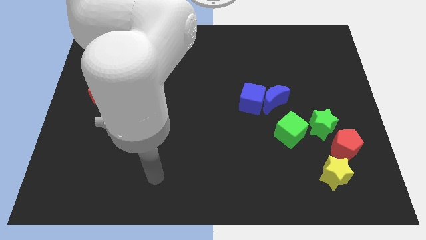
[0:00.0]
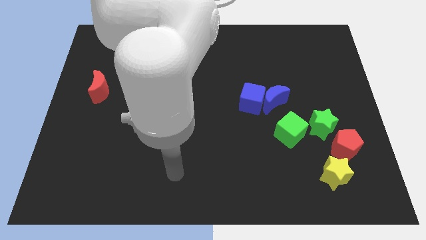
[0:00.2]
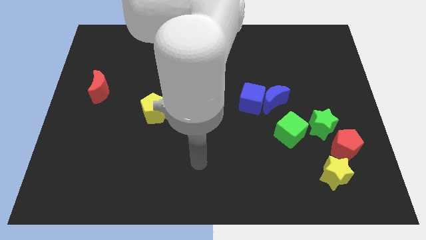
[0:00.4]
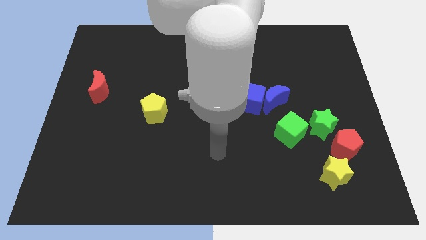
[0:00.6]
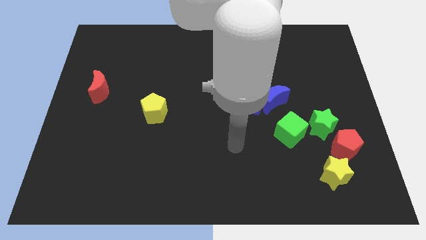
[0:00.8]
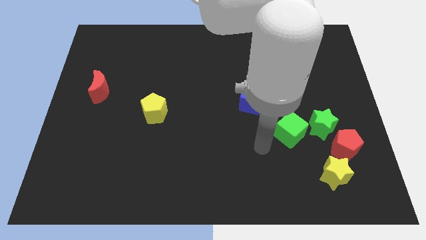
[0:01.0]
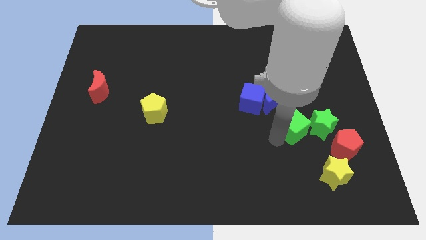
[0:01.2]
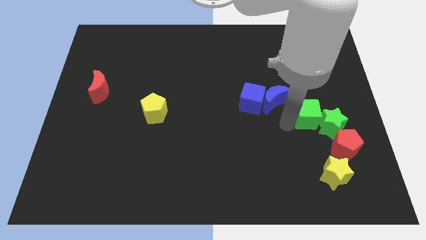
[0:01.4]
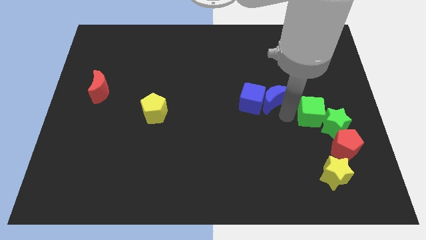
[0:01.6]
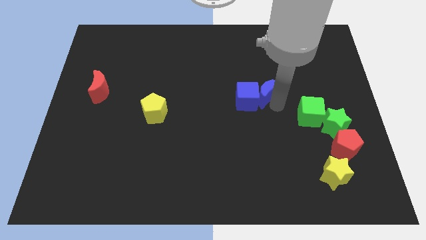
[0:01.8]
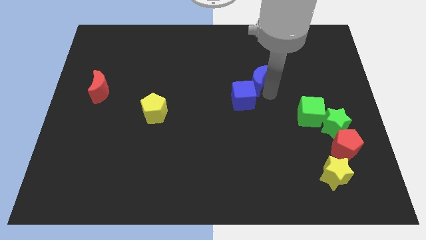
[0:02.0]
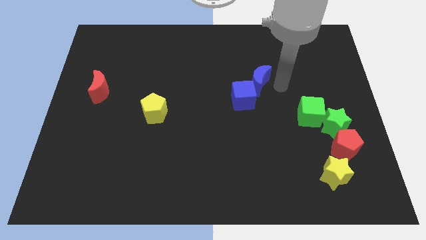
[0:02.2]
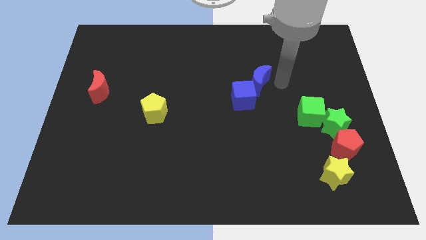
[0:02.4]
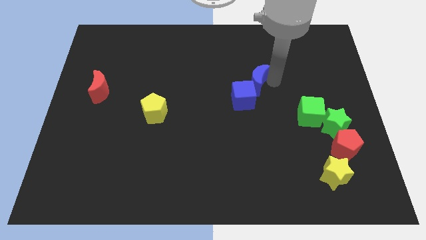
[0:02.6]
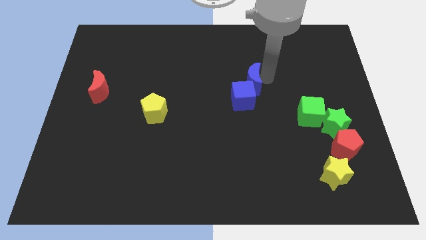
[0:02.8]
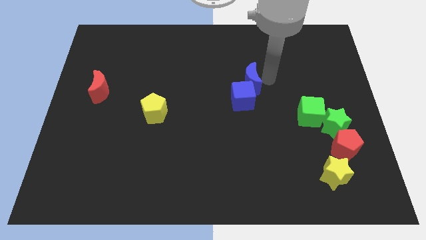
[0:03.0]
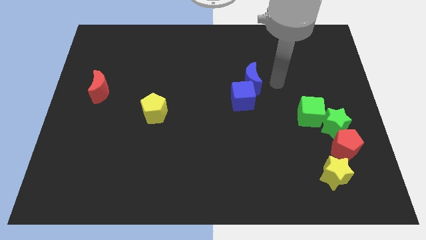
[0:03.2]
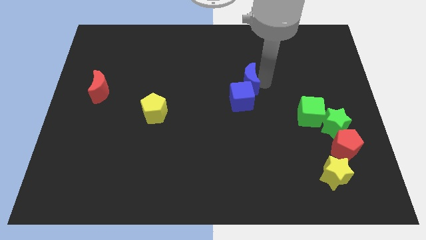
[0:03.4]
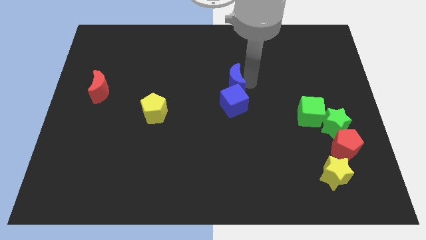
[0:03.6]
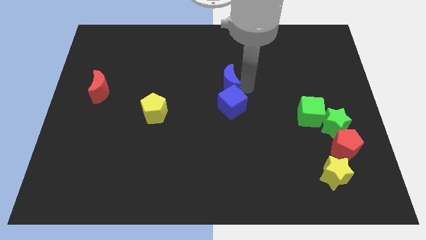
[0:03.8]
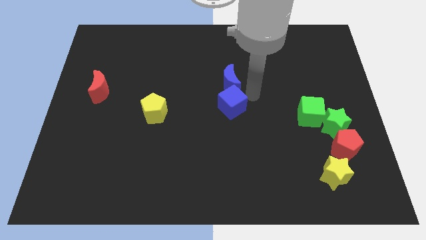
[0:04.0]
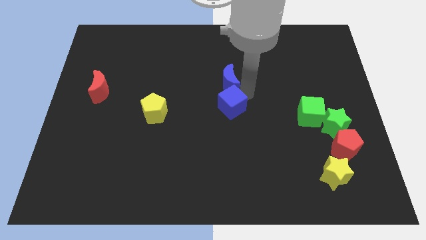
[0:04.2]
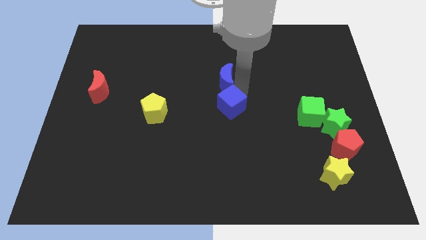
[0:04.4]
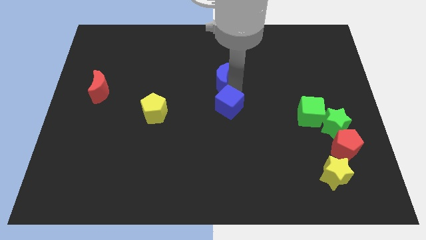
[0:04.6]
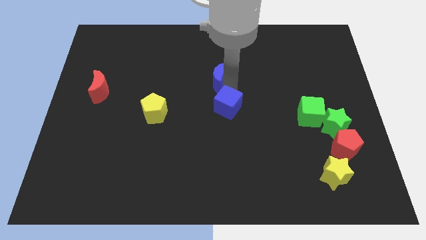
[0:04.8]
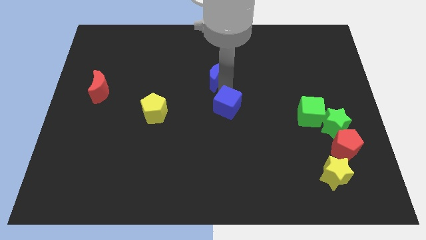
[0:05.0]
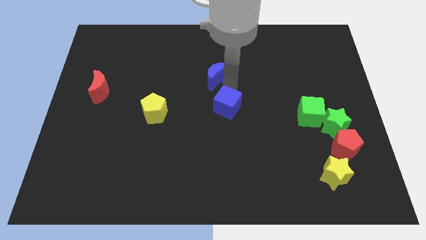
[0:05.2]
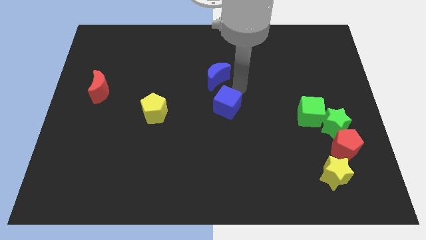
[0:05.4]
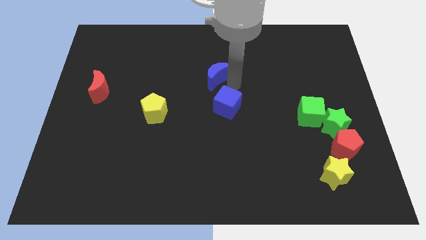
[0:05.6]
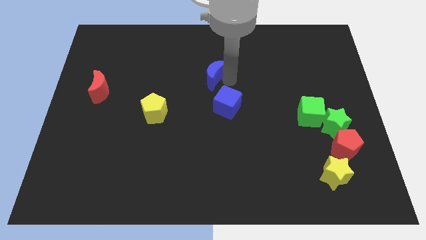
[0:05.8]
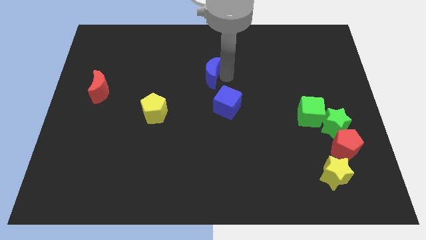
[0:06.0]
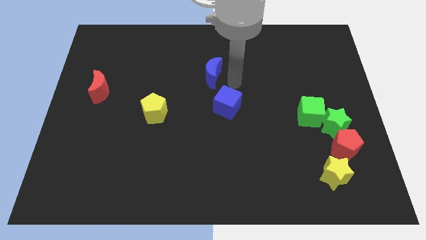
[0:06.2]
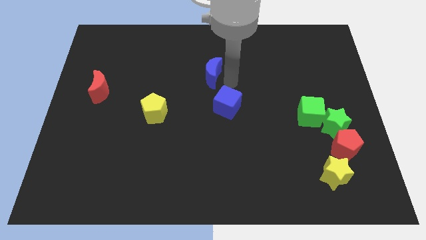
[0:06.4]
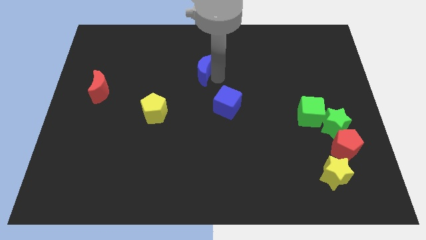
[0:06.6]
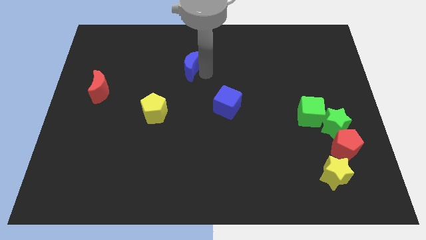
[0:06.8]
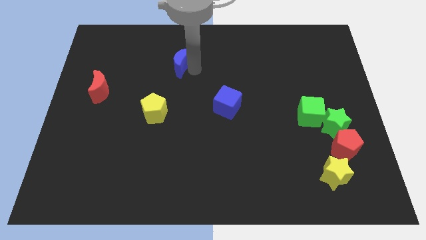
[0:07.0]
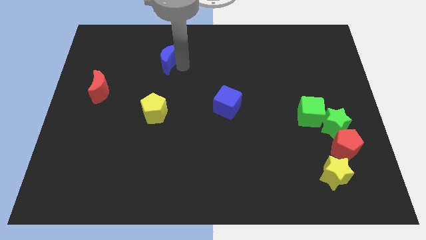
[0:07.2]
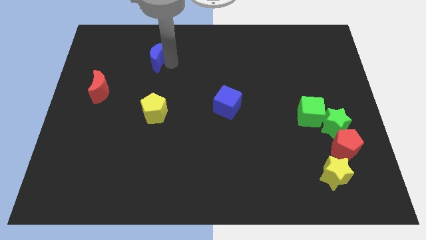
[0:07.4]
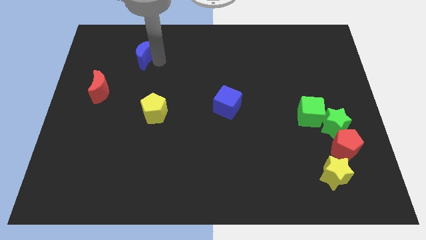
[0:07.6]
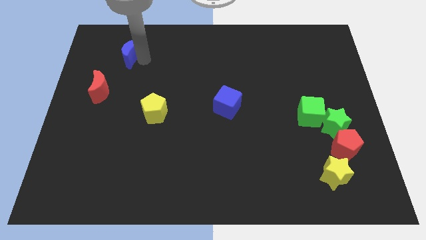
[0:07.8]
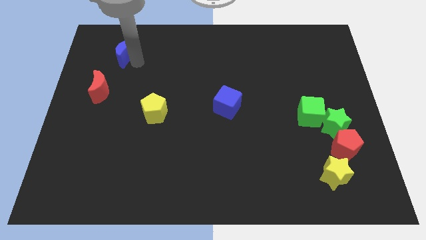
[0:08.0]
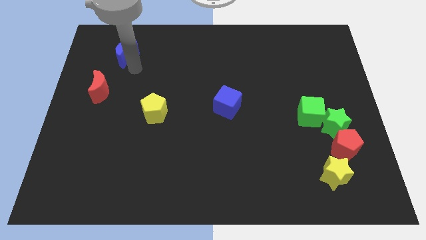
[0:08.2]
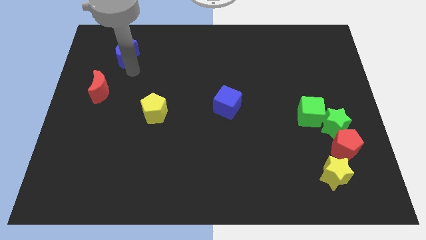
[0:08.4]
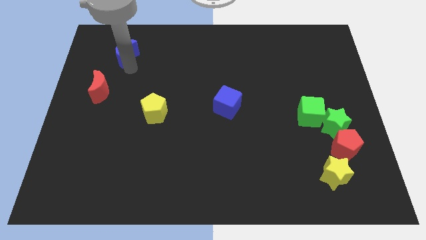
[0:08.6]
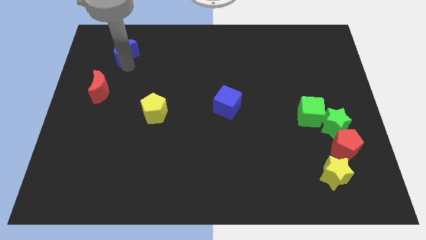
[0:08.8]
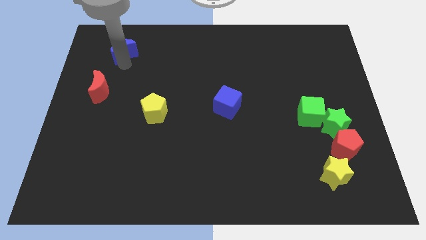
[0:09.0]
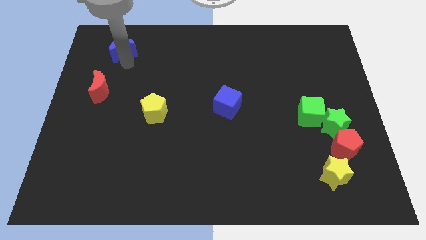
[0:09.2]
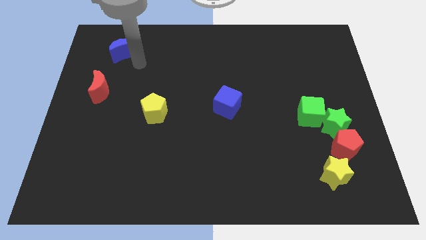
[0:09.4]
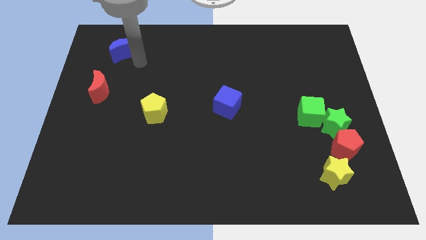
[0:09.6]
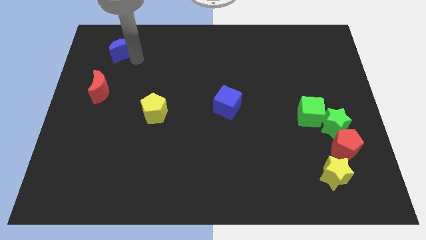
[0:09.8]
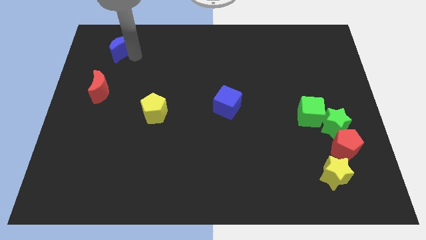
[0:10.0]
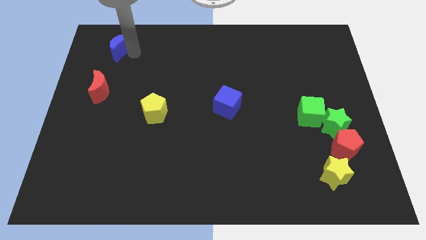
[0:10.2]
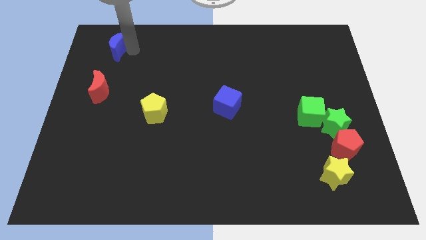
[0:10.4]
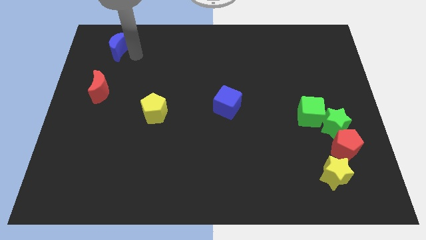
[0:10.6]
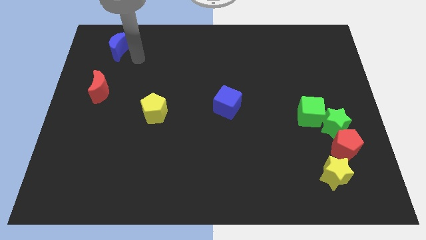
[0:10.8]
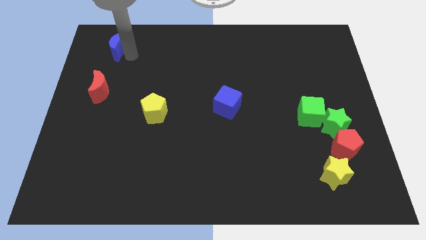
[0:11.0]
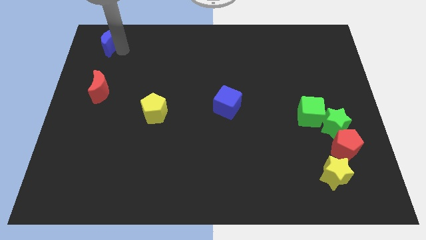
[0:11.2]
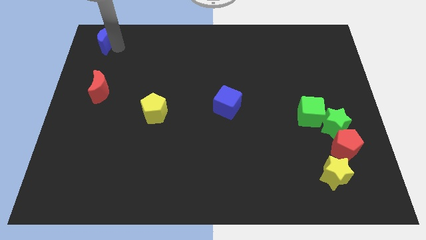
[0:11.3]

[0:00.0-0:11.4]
slide the blue moon to the upper left corner

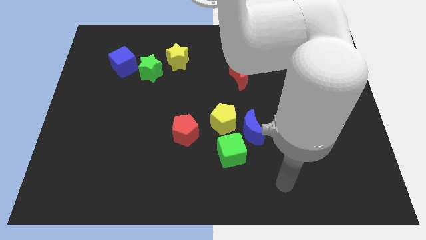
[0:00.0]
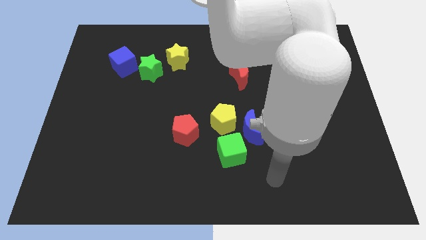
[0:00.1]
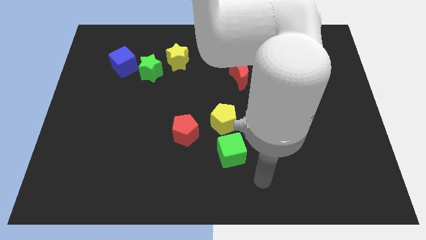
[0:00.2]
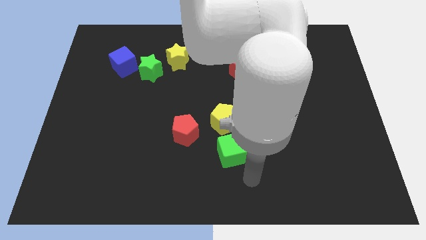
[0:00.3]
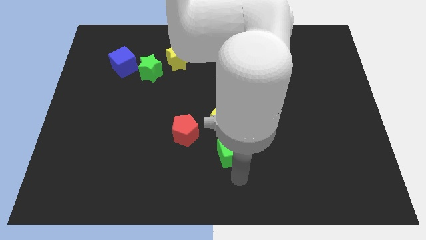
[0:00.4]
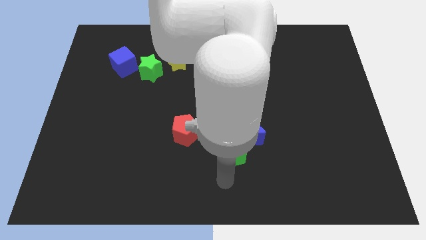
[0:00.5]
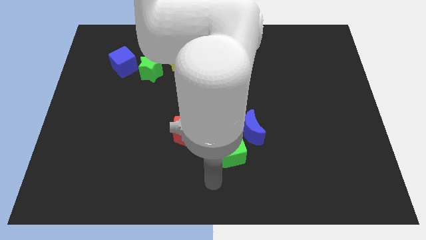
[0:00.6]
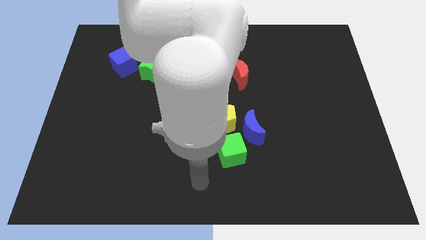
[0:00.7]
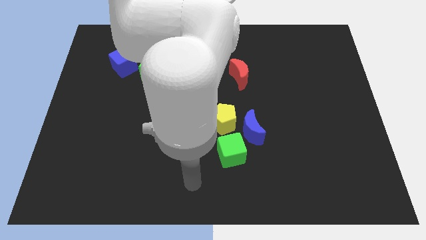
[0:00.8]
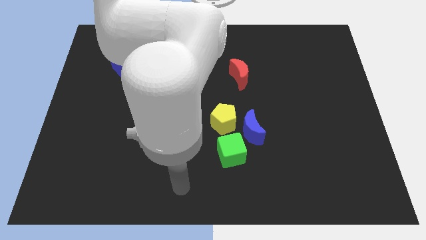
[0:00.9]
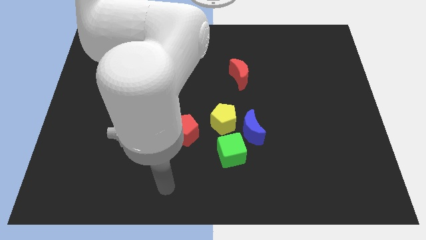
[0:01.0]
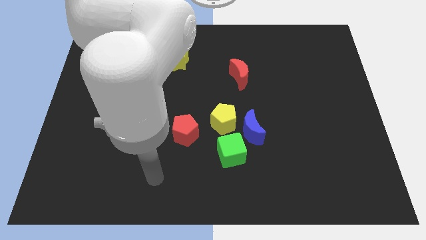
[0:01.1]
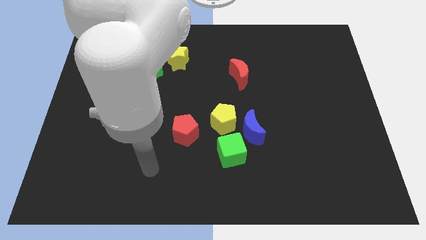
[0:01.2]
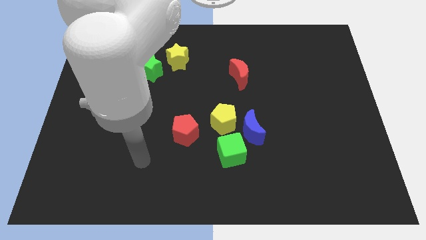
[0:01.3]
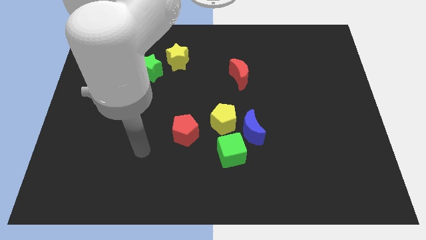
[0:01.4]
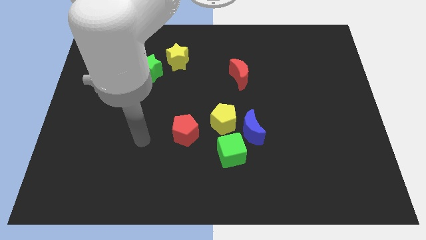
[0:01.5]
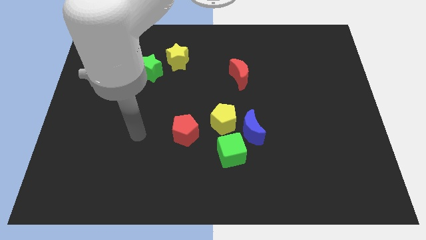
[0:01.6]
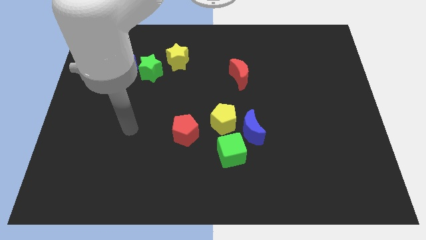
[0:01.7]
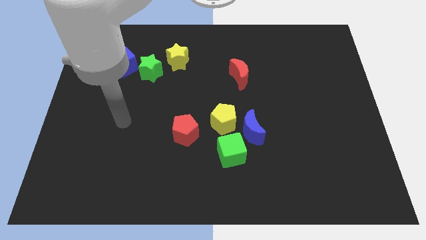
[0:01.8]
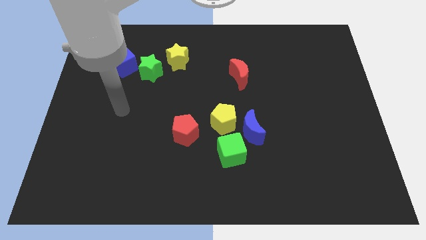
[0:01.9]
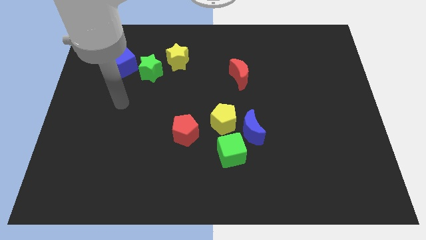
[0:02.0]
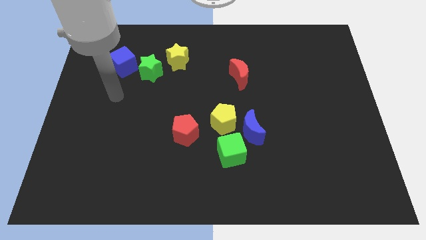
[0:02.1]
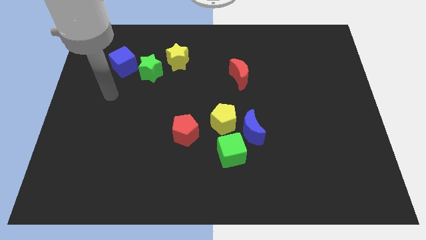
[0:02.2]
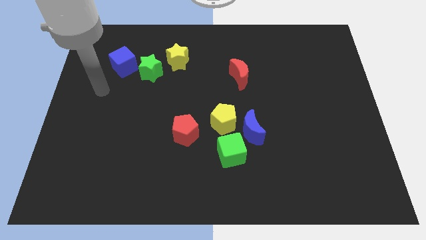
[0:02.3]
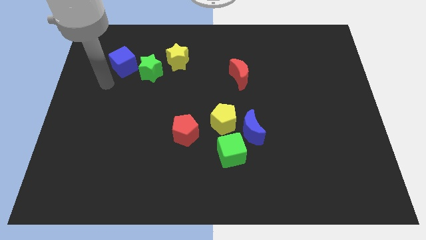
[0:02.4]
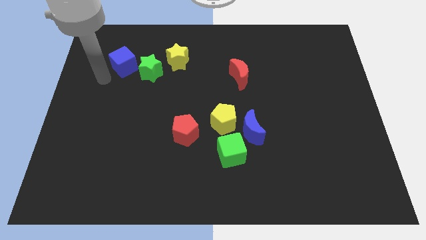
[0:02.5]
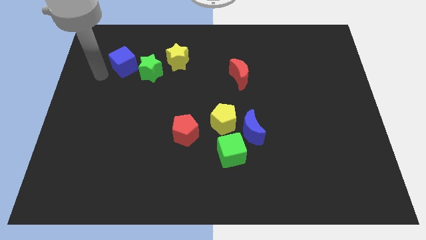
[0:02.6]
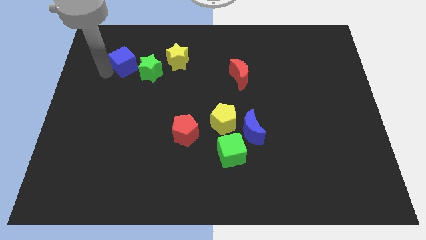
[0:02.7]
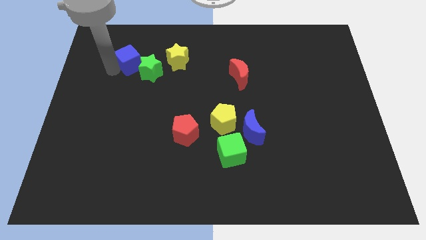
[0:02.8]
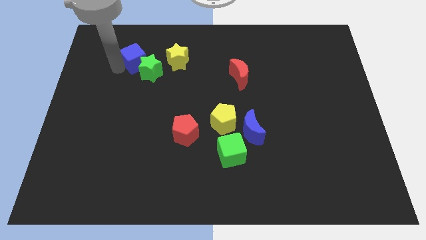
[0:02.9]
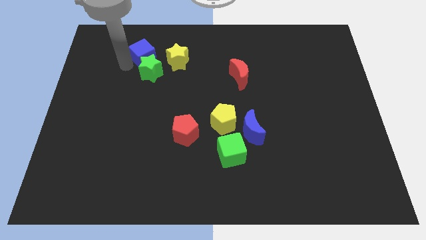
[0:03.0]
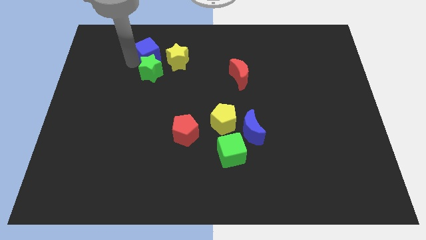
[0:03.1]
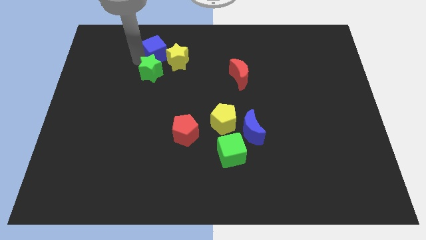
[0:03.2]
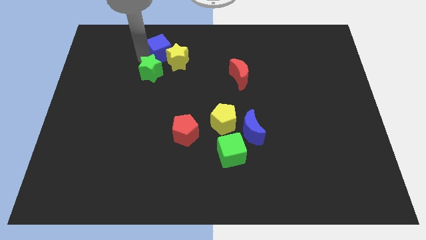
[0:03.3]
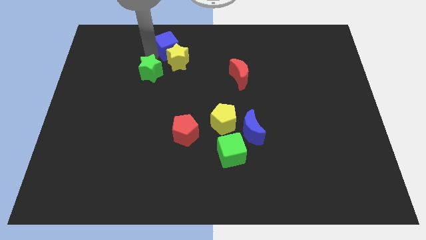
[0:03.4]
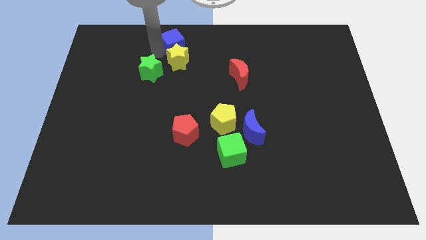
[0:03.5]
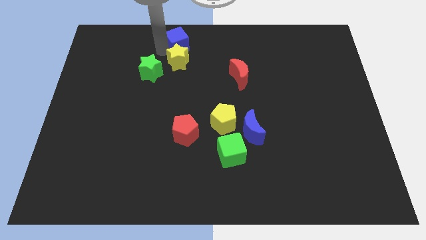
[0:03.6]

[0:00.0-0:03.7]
put the blue cube to the top side
